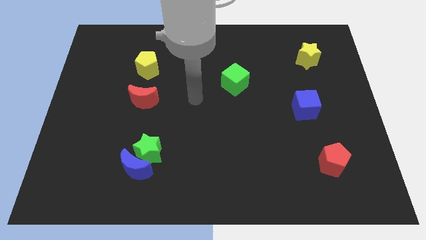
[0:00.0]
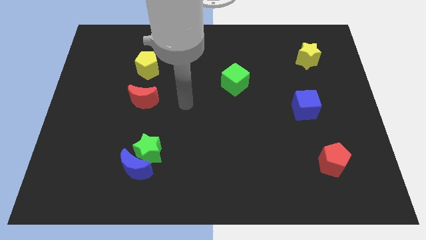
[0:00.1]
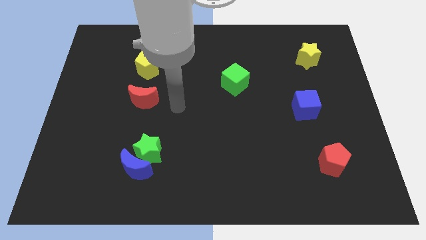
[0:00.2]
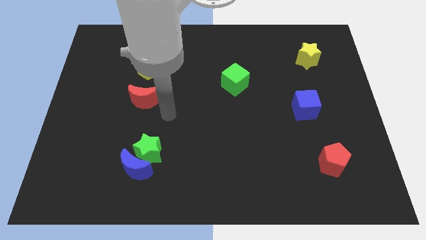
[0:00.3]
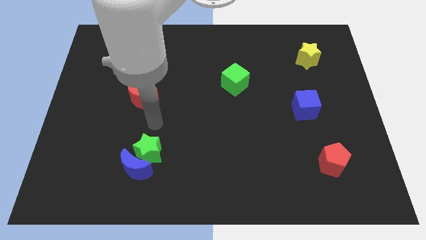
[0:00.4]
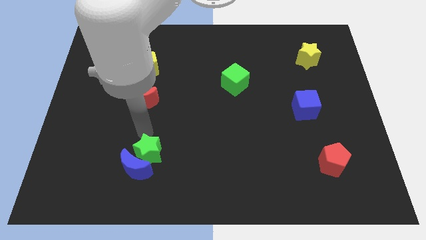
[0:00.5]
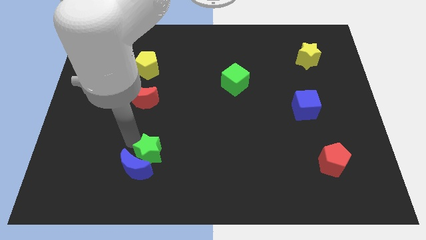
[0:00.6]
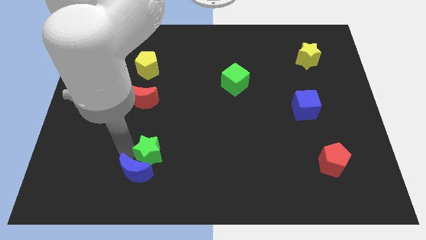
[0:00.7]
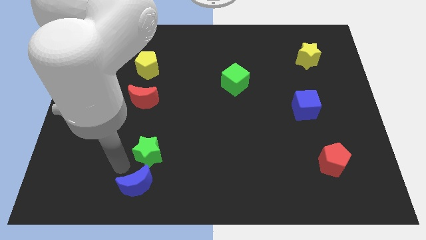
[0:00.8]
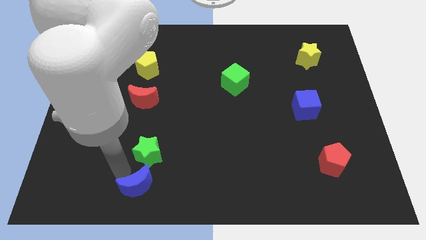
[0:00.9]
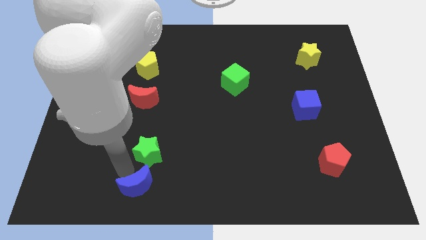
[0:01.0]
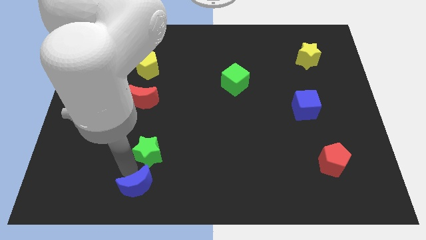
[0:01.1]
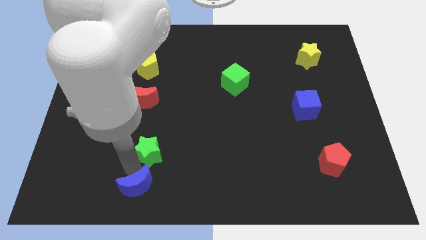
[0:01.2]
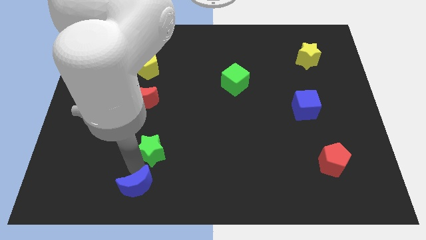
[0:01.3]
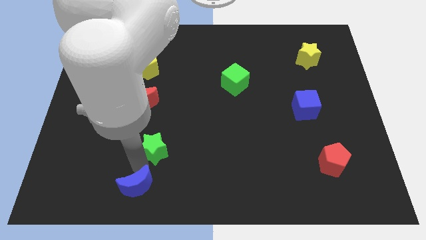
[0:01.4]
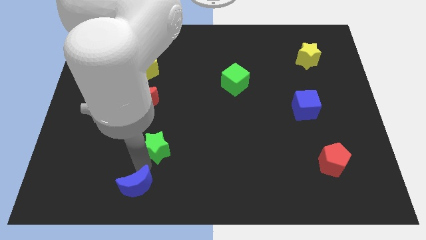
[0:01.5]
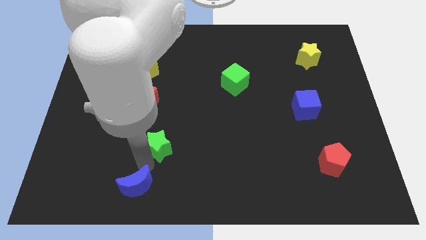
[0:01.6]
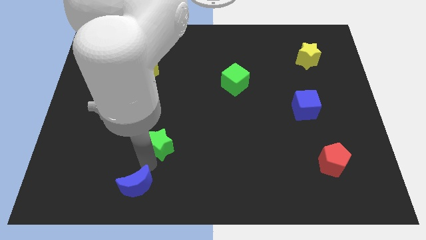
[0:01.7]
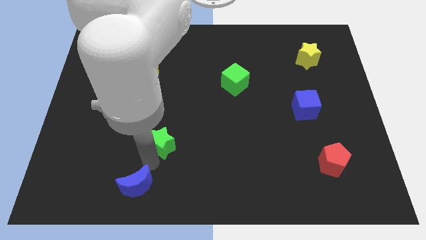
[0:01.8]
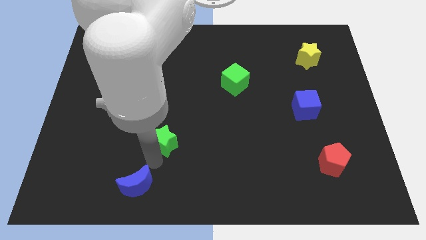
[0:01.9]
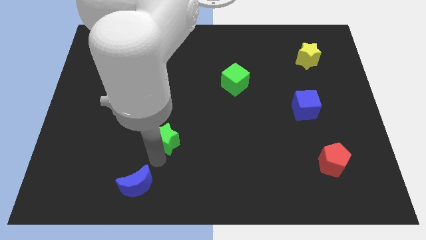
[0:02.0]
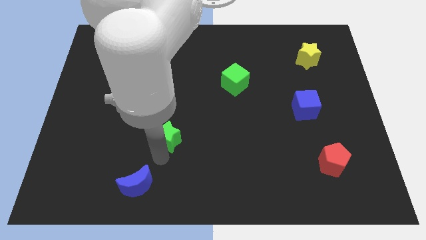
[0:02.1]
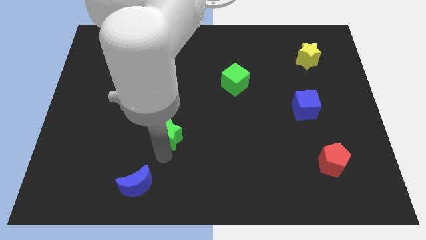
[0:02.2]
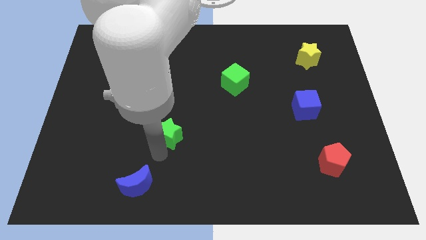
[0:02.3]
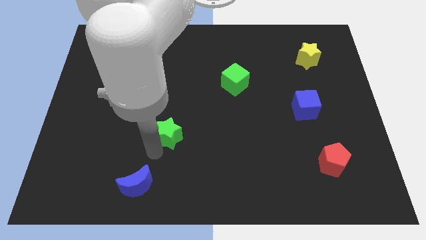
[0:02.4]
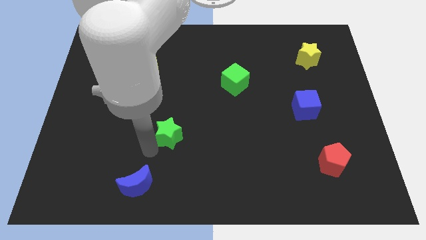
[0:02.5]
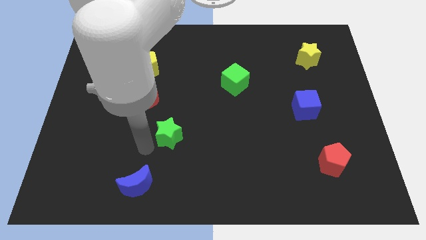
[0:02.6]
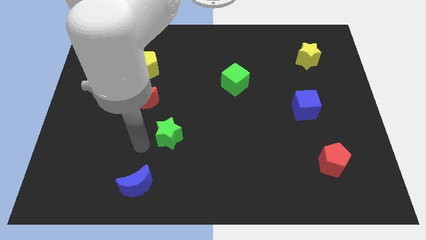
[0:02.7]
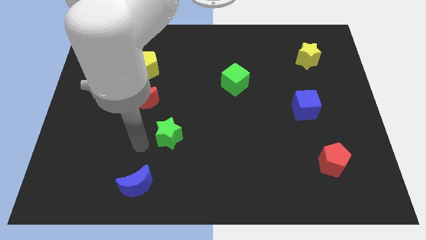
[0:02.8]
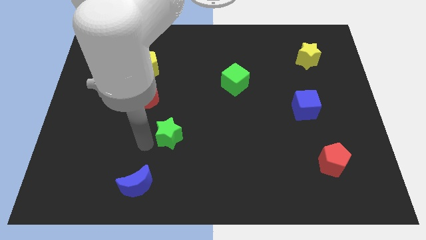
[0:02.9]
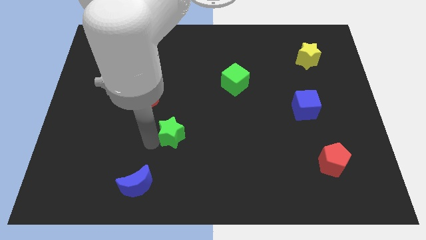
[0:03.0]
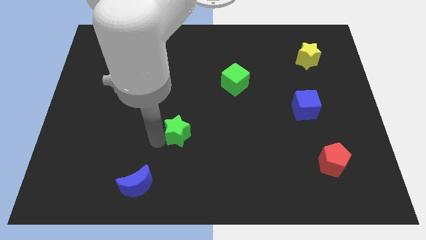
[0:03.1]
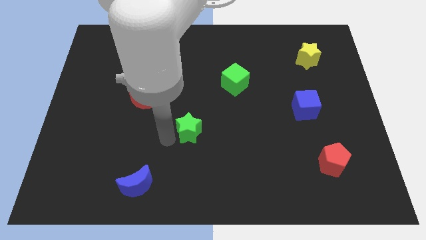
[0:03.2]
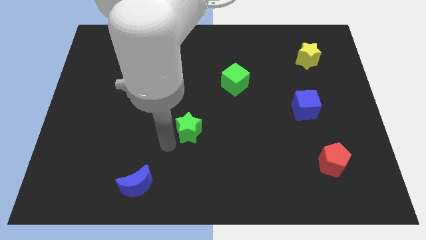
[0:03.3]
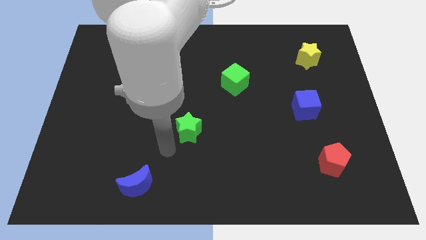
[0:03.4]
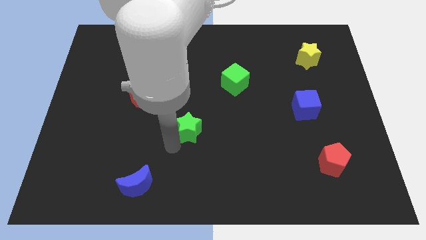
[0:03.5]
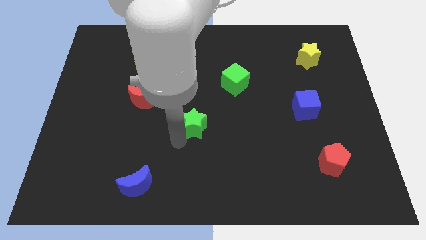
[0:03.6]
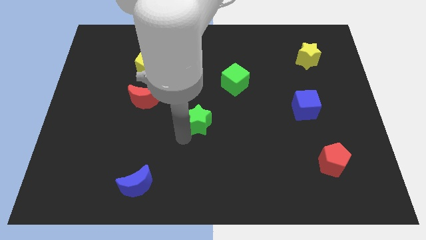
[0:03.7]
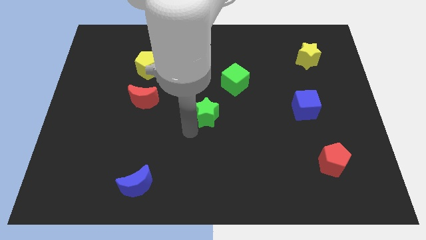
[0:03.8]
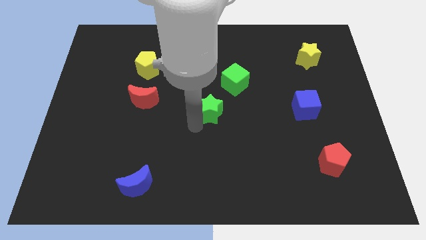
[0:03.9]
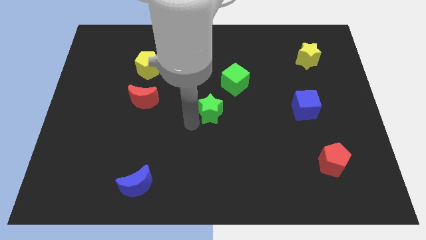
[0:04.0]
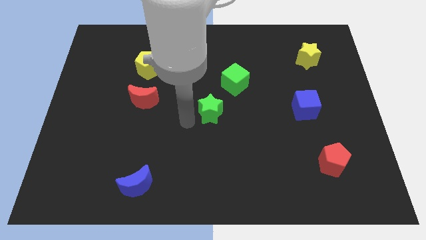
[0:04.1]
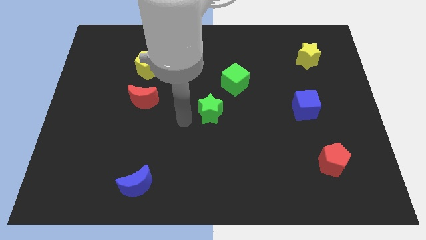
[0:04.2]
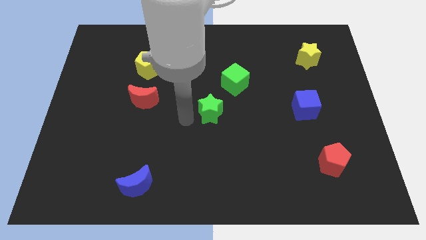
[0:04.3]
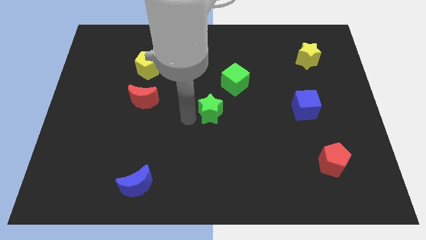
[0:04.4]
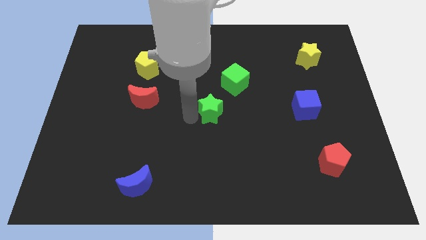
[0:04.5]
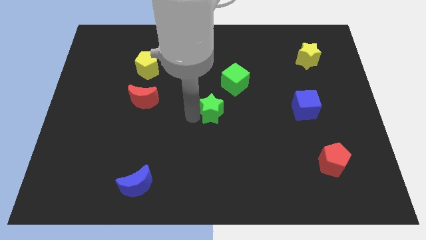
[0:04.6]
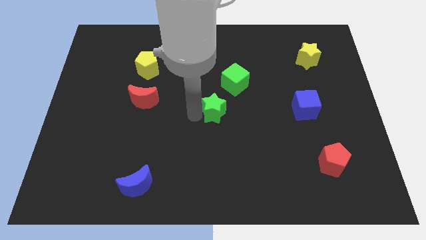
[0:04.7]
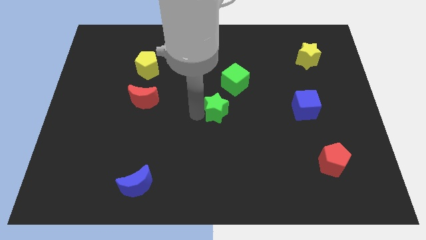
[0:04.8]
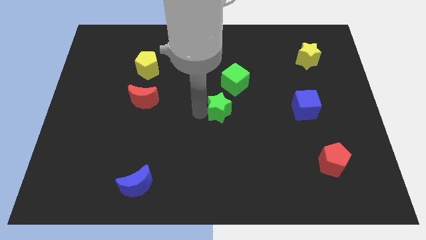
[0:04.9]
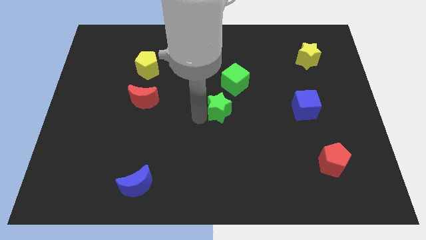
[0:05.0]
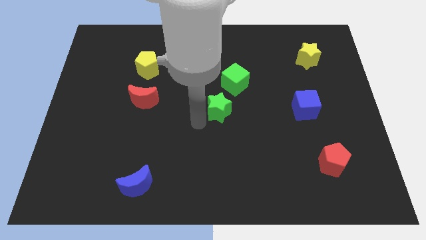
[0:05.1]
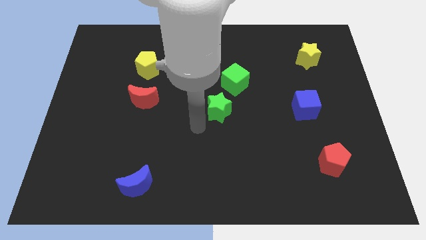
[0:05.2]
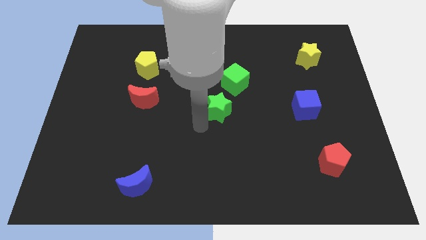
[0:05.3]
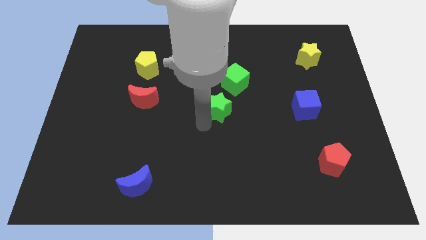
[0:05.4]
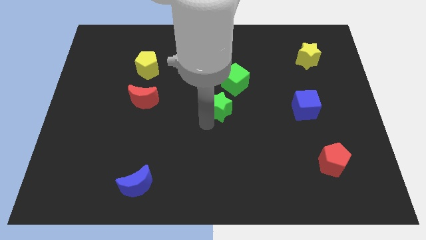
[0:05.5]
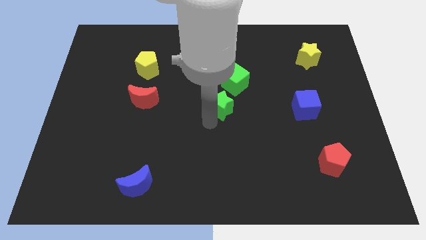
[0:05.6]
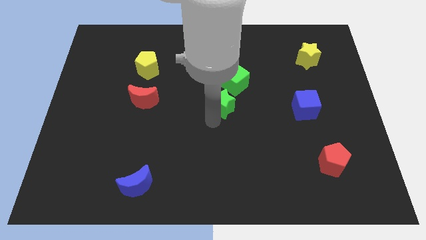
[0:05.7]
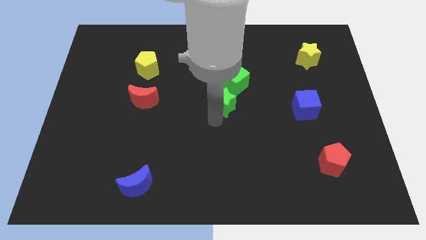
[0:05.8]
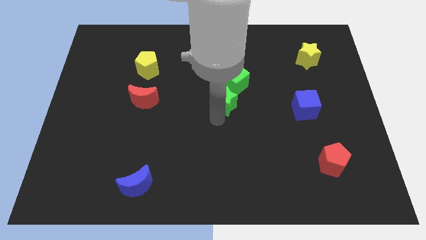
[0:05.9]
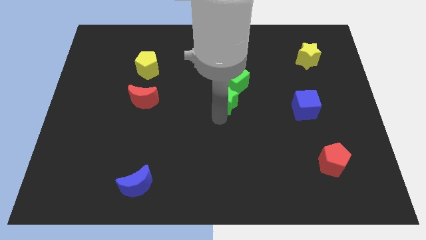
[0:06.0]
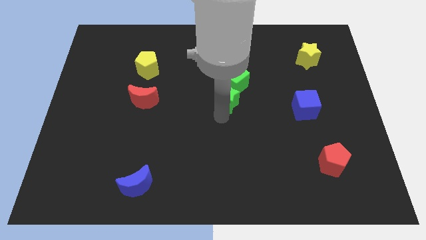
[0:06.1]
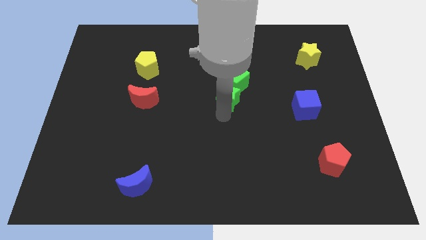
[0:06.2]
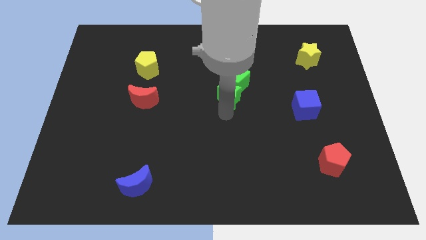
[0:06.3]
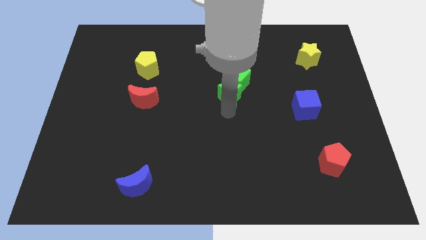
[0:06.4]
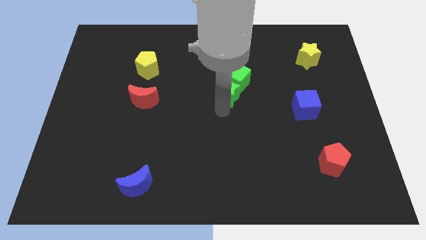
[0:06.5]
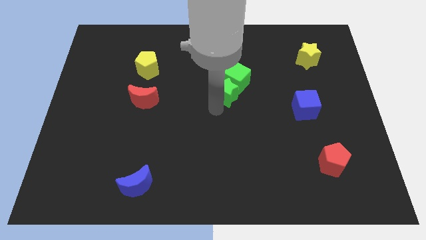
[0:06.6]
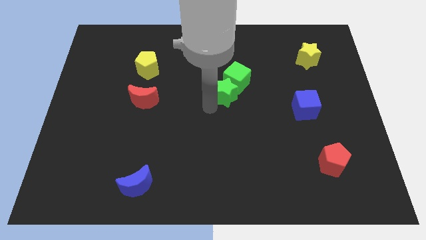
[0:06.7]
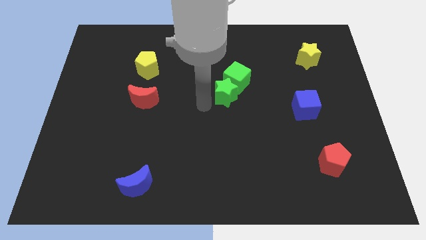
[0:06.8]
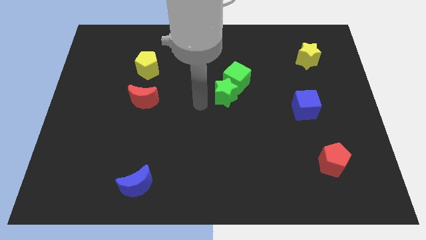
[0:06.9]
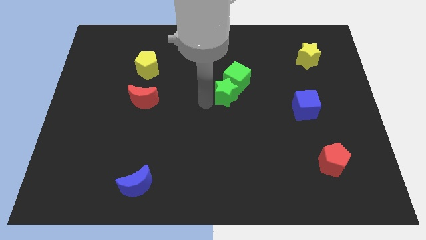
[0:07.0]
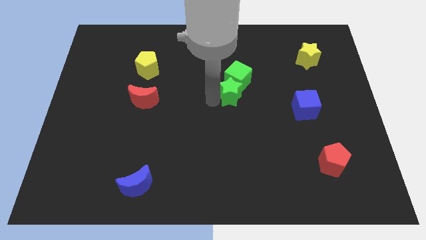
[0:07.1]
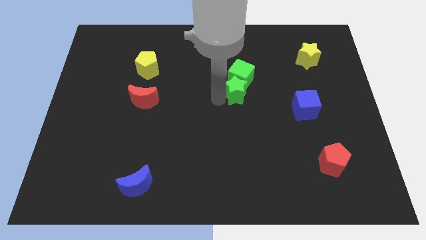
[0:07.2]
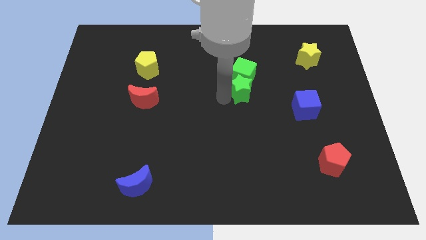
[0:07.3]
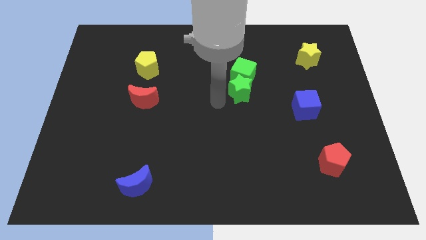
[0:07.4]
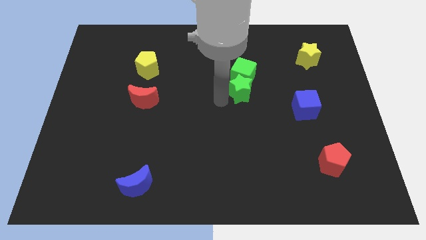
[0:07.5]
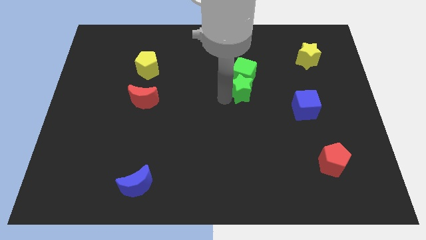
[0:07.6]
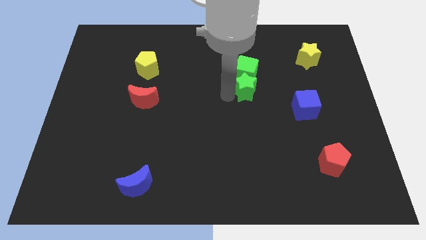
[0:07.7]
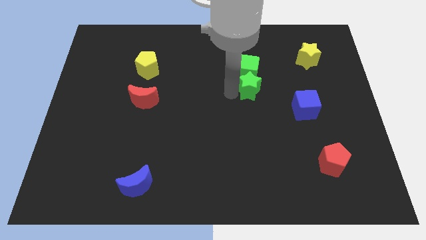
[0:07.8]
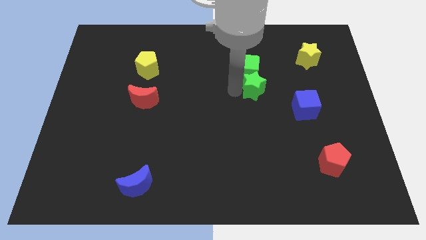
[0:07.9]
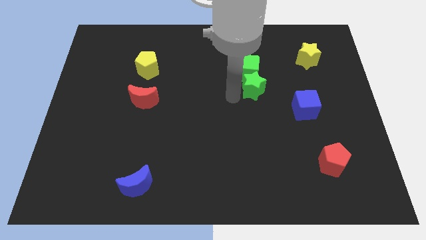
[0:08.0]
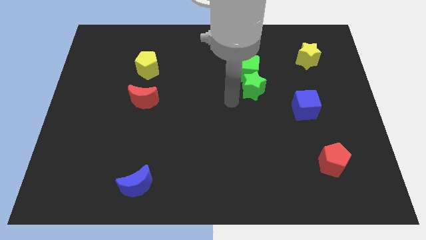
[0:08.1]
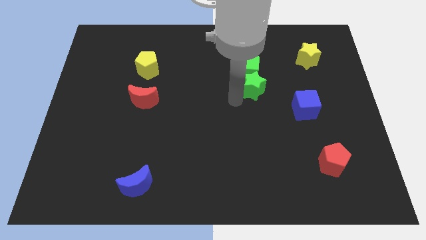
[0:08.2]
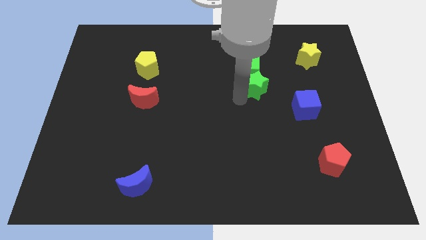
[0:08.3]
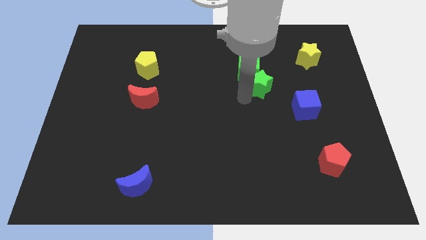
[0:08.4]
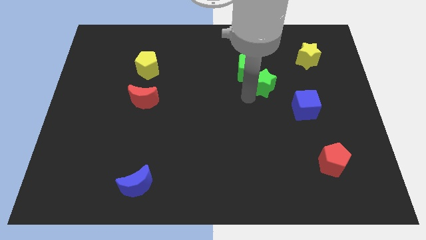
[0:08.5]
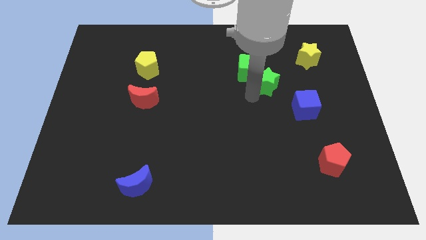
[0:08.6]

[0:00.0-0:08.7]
move the green star just right of the green cube
